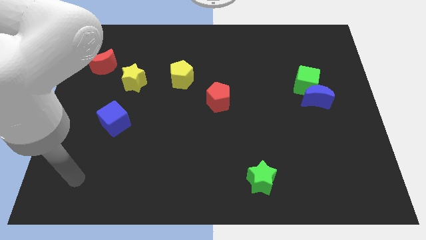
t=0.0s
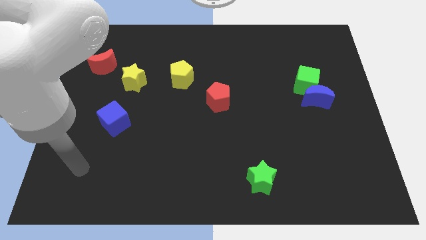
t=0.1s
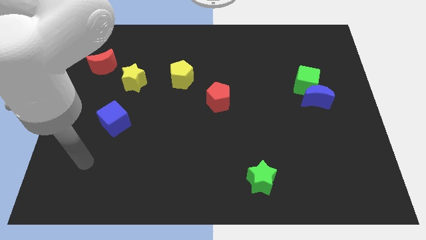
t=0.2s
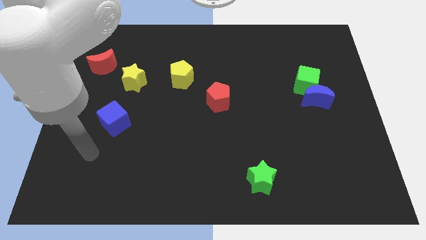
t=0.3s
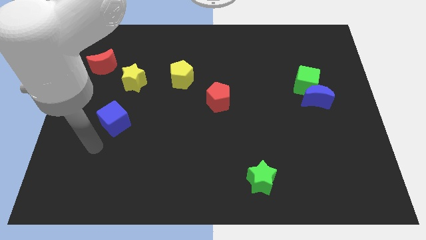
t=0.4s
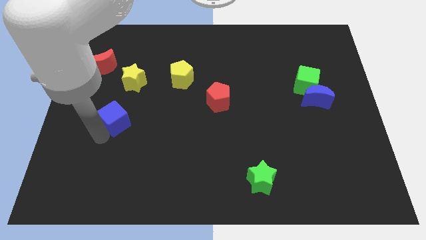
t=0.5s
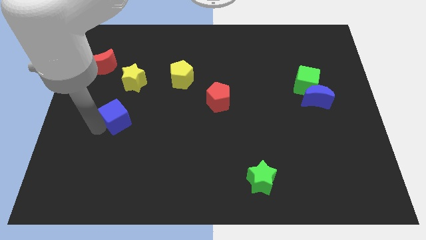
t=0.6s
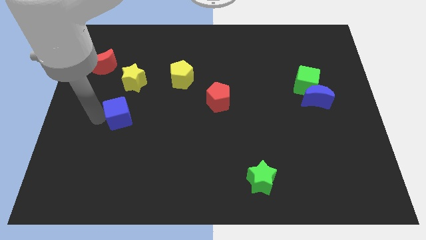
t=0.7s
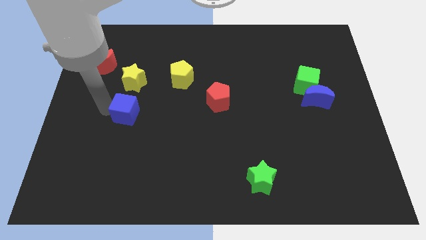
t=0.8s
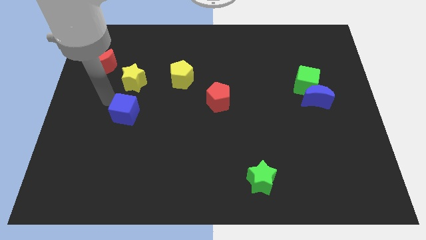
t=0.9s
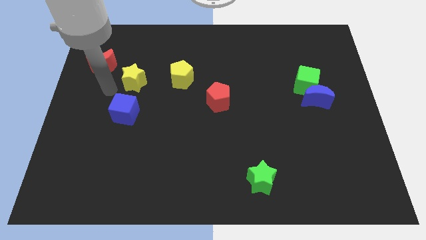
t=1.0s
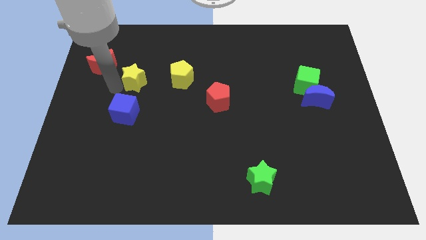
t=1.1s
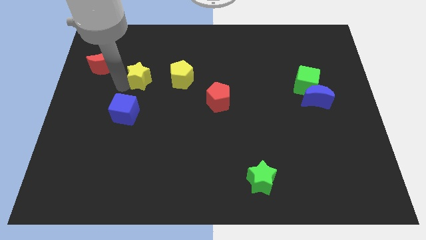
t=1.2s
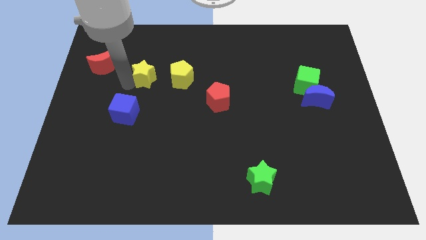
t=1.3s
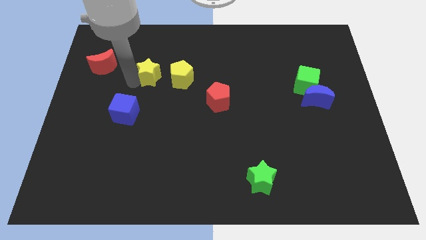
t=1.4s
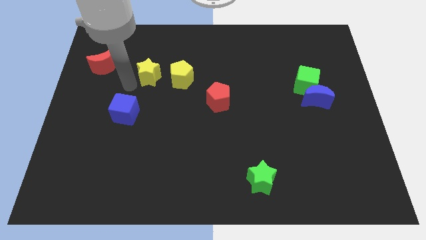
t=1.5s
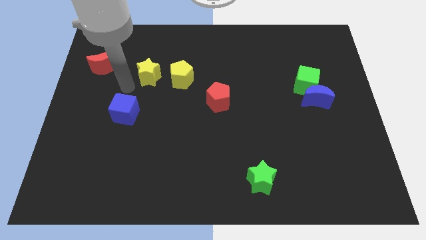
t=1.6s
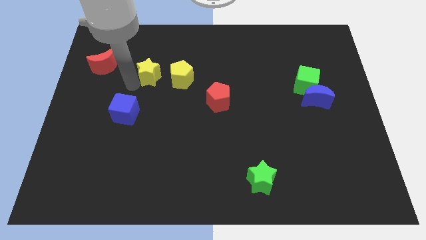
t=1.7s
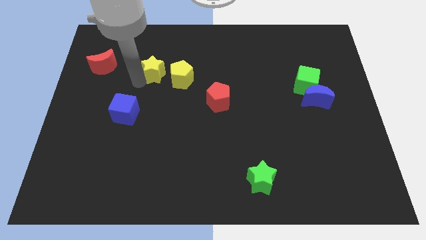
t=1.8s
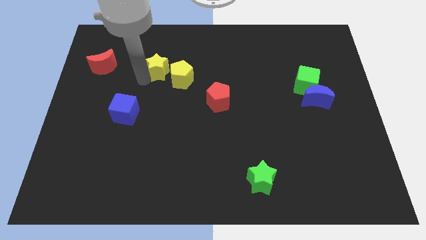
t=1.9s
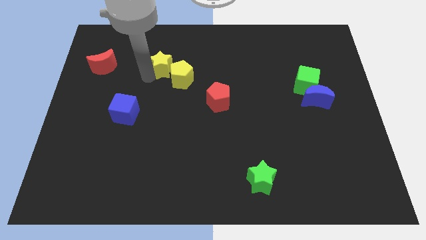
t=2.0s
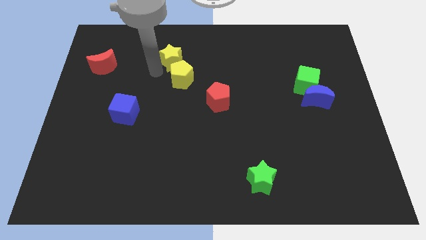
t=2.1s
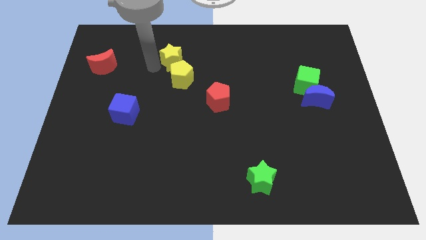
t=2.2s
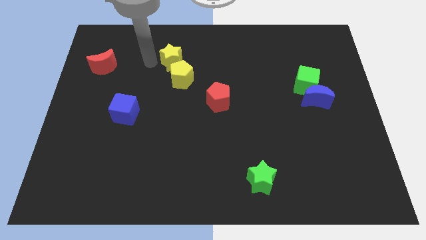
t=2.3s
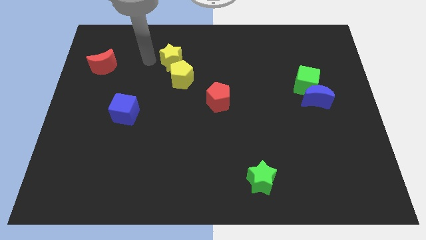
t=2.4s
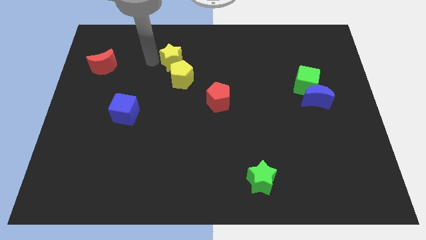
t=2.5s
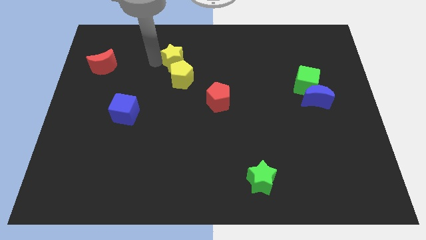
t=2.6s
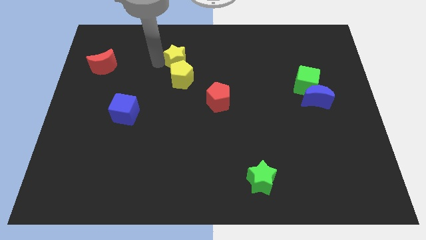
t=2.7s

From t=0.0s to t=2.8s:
push the yellow star to the top right side of the yellow pentagon

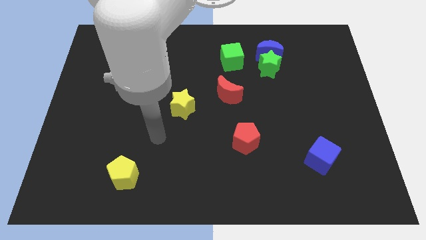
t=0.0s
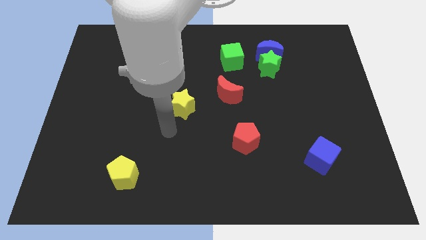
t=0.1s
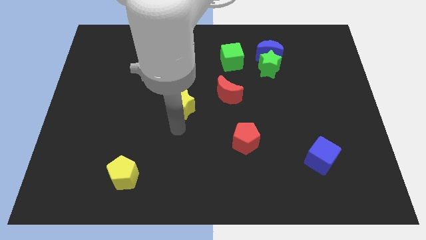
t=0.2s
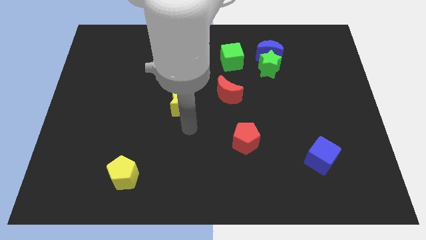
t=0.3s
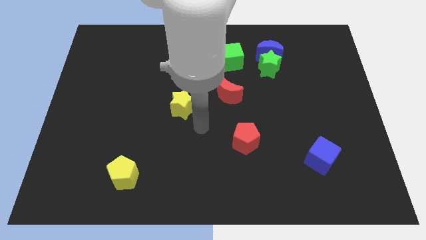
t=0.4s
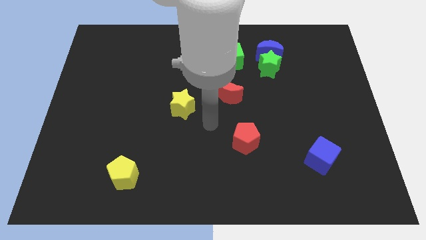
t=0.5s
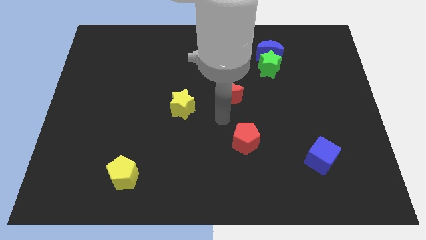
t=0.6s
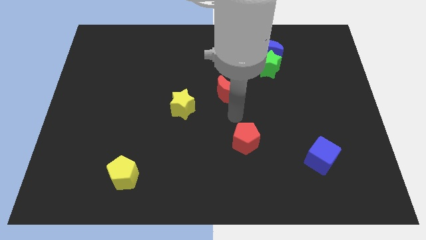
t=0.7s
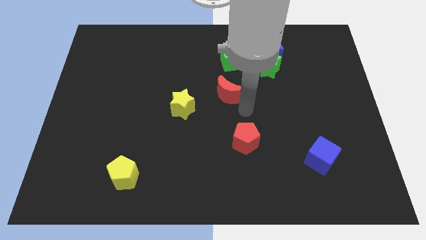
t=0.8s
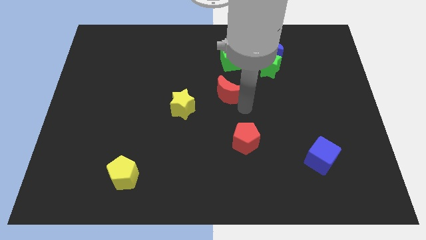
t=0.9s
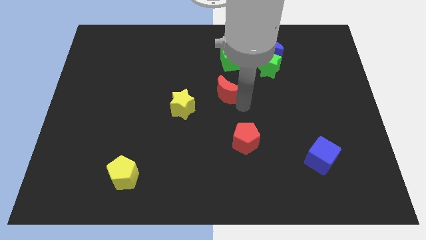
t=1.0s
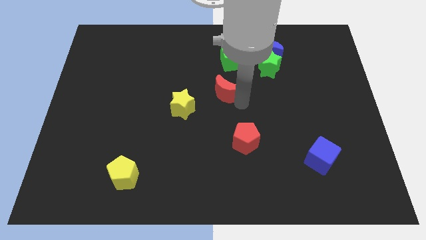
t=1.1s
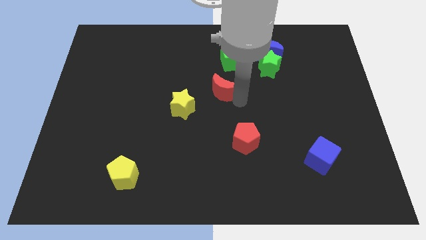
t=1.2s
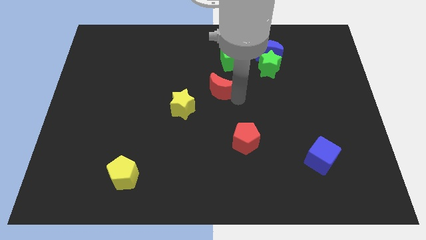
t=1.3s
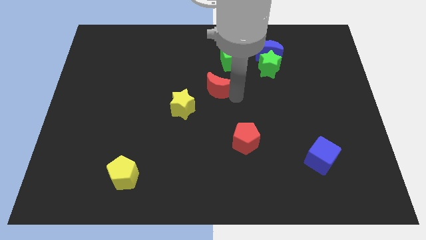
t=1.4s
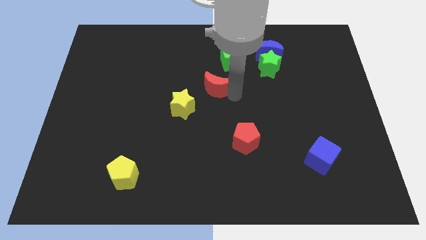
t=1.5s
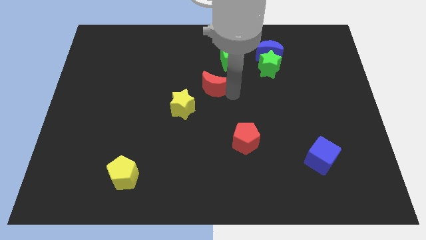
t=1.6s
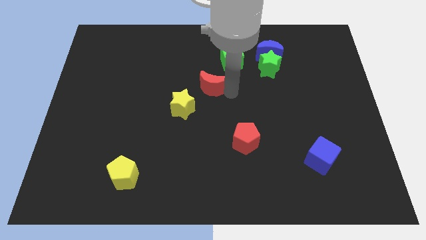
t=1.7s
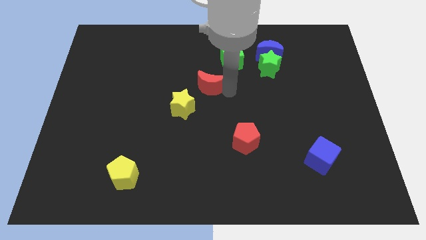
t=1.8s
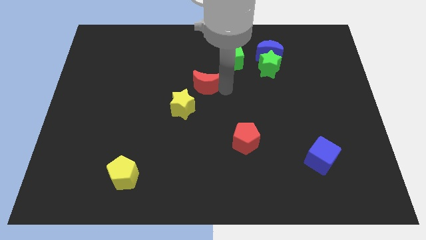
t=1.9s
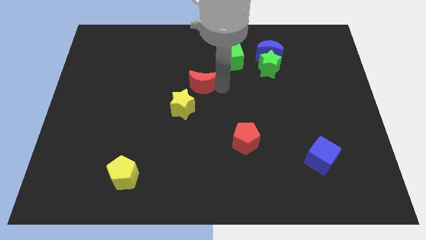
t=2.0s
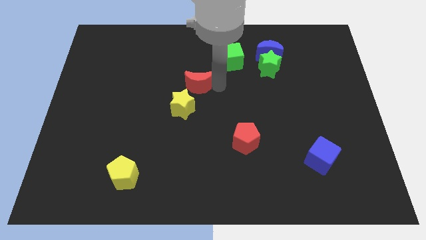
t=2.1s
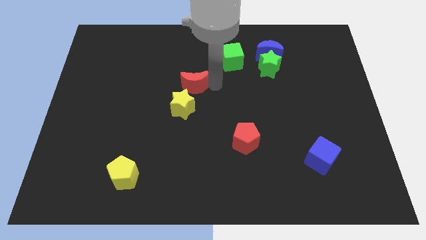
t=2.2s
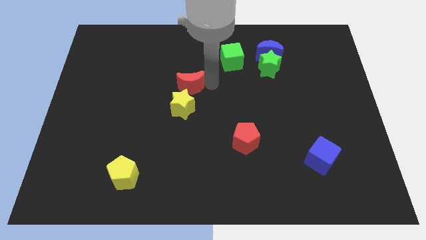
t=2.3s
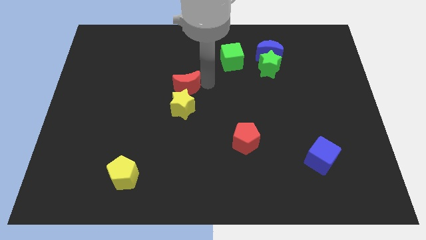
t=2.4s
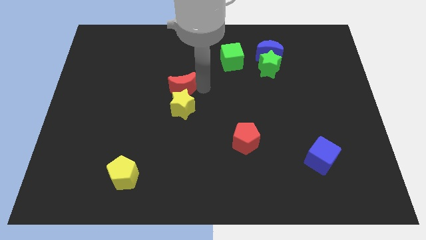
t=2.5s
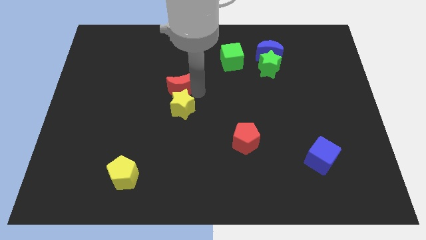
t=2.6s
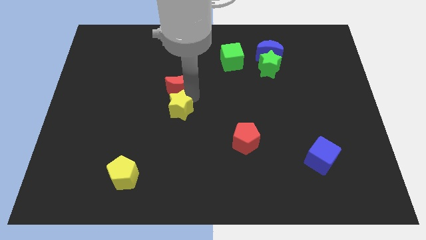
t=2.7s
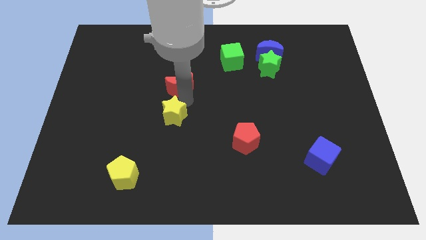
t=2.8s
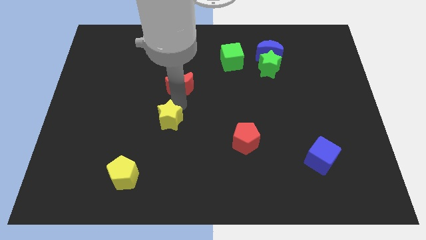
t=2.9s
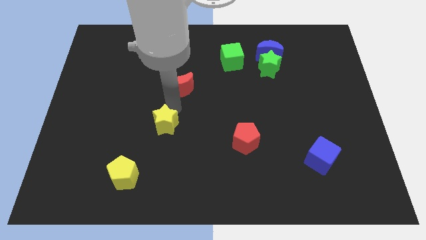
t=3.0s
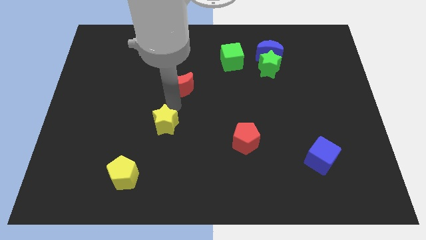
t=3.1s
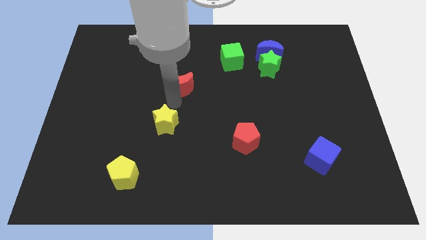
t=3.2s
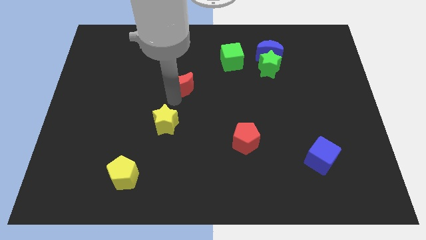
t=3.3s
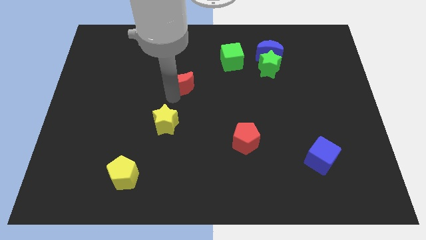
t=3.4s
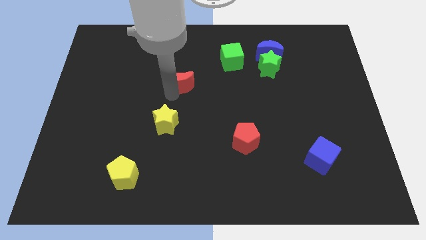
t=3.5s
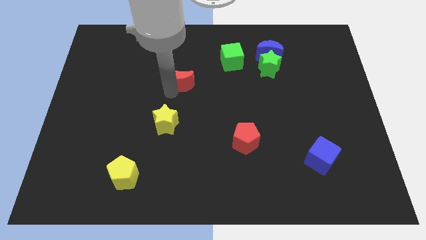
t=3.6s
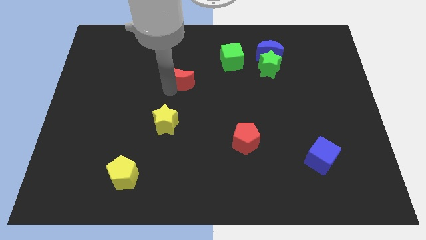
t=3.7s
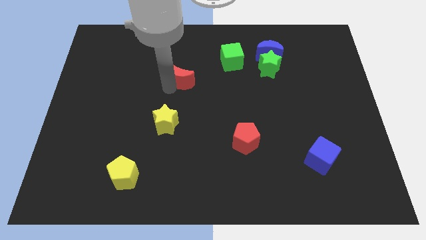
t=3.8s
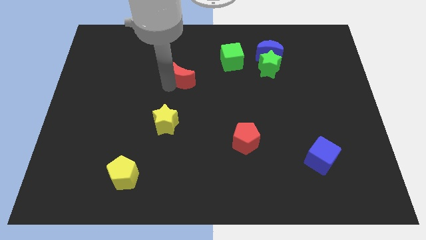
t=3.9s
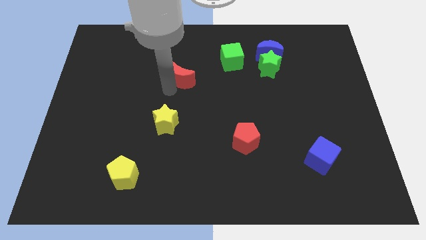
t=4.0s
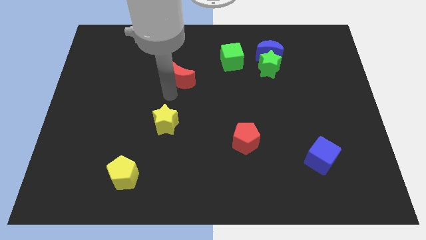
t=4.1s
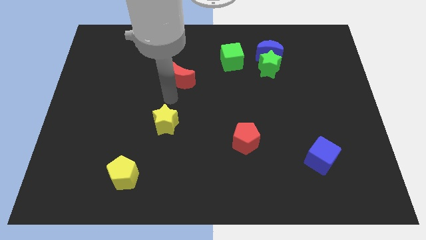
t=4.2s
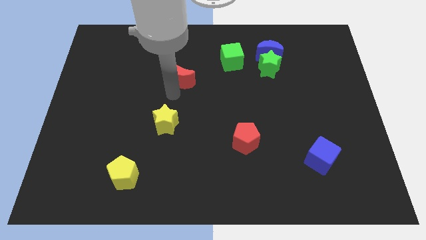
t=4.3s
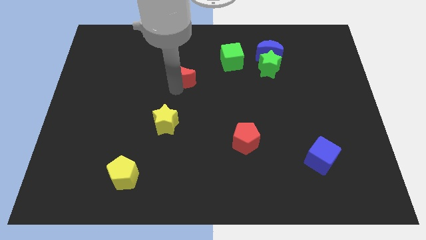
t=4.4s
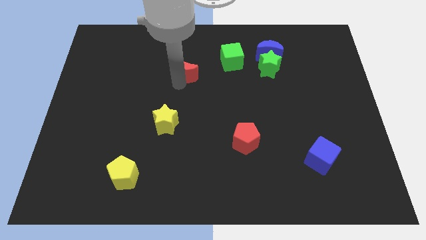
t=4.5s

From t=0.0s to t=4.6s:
move the red moon to the left of the green cube

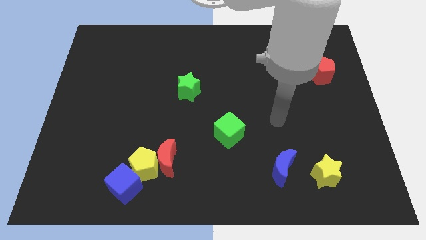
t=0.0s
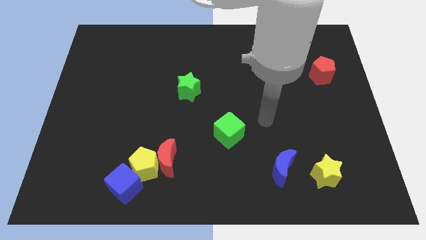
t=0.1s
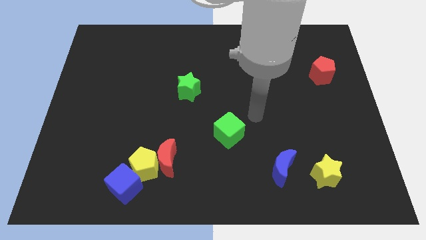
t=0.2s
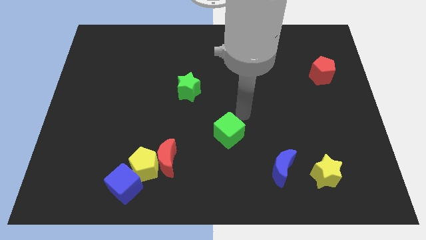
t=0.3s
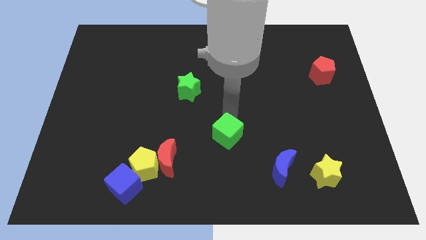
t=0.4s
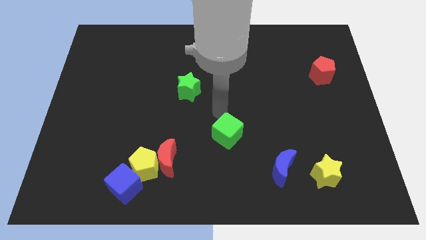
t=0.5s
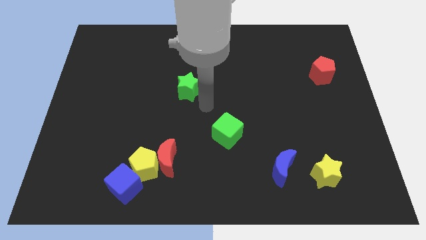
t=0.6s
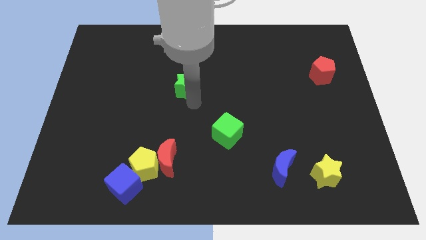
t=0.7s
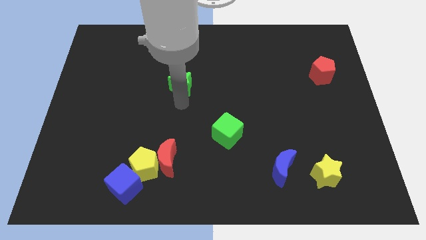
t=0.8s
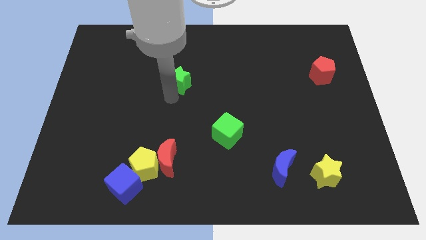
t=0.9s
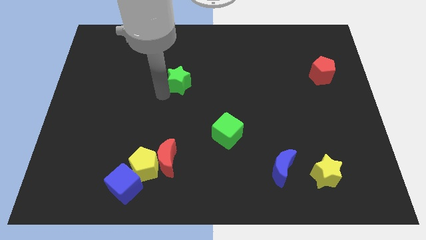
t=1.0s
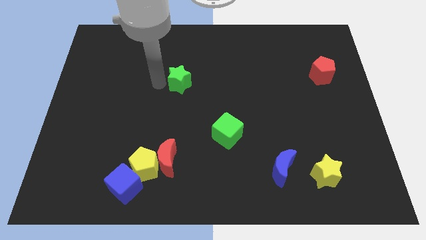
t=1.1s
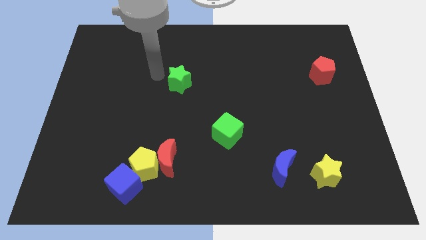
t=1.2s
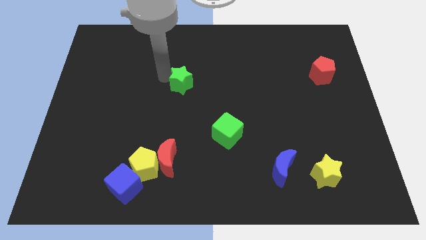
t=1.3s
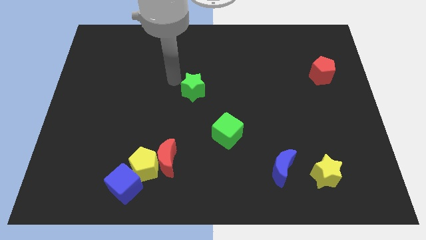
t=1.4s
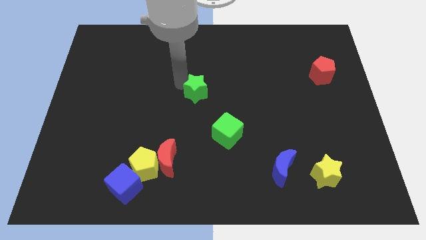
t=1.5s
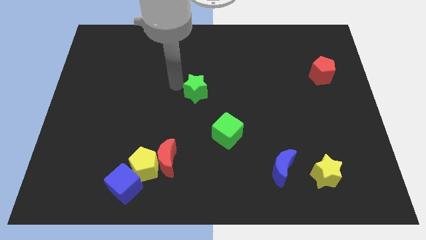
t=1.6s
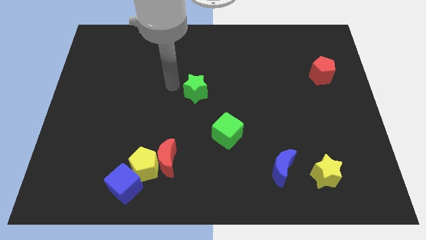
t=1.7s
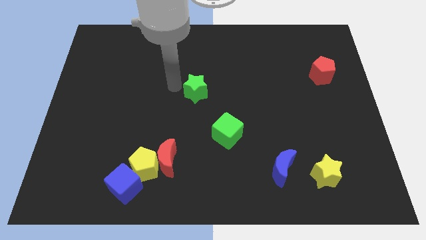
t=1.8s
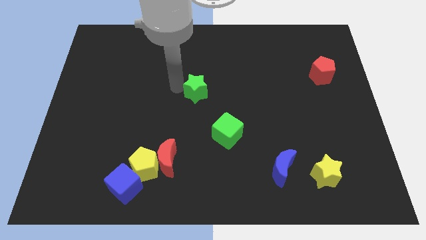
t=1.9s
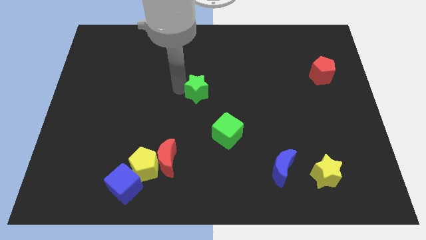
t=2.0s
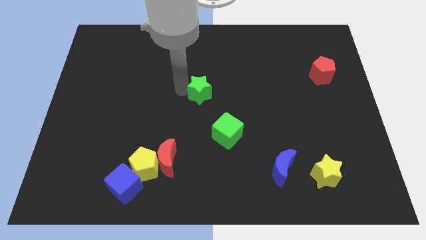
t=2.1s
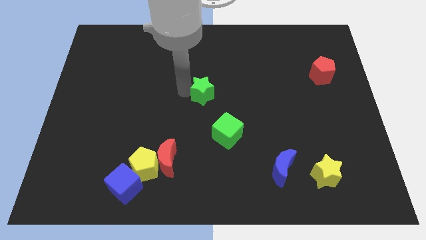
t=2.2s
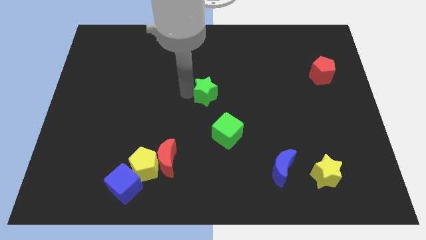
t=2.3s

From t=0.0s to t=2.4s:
move the green star above the green cube
